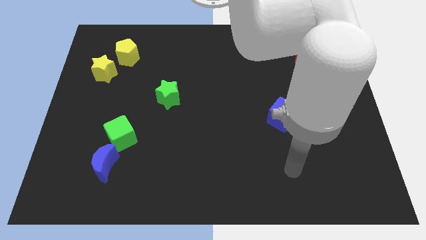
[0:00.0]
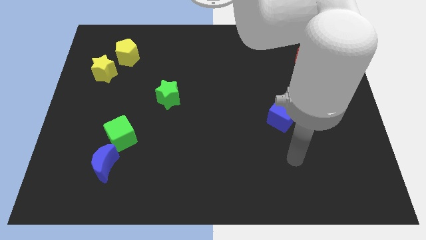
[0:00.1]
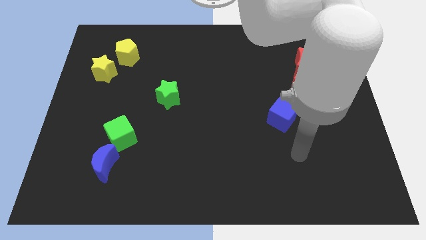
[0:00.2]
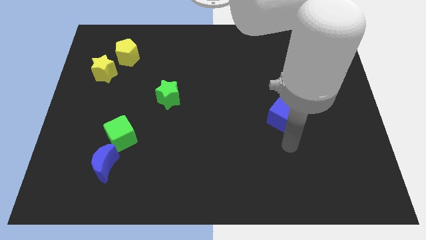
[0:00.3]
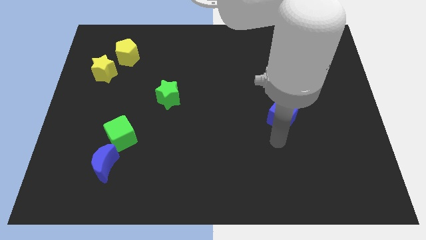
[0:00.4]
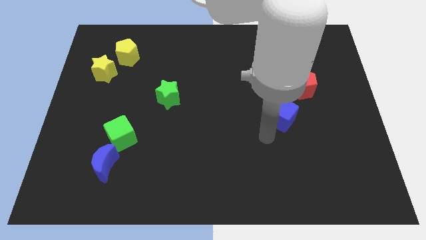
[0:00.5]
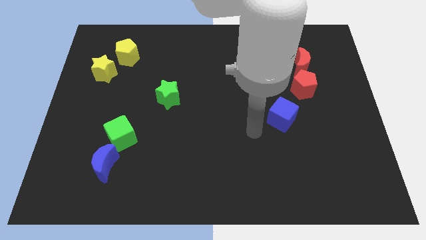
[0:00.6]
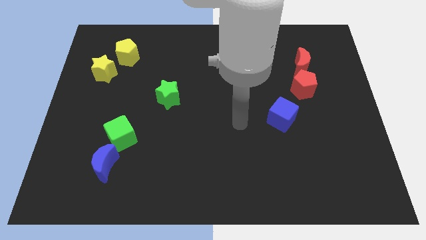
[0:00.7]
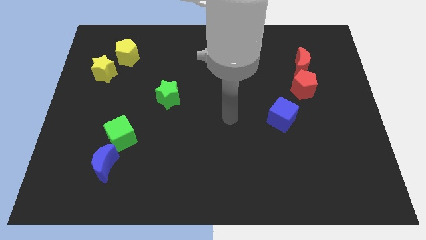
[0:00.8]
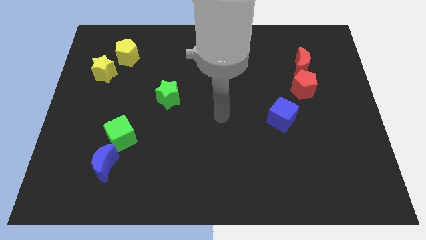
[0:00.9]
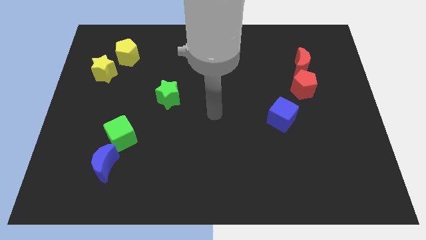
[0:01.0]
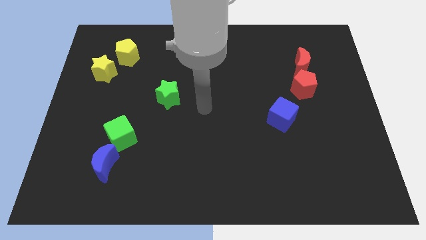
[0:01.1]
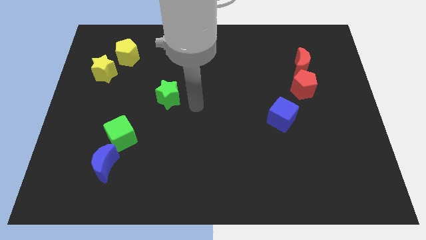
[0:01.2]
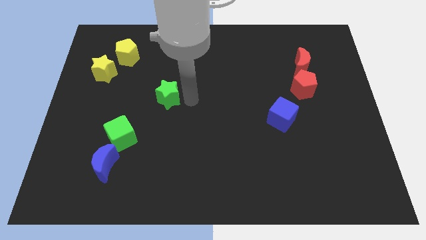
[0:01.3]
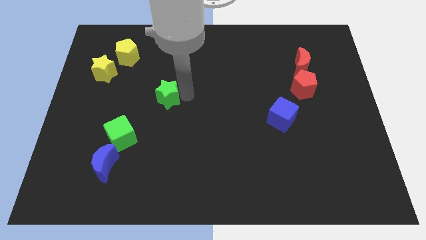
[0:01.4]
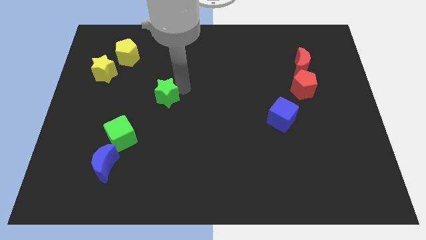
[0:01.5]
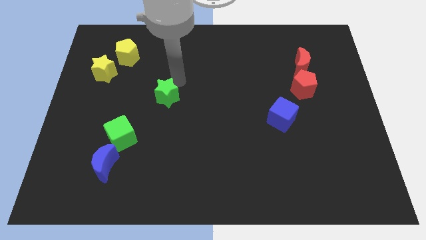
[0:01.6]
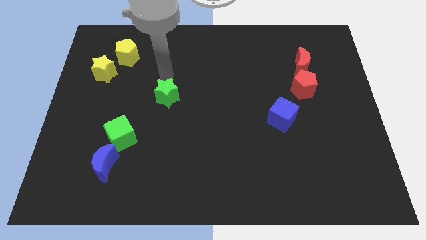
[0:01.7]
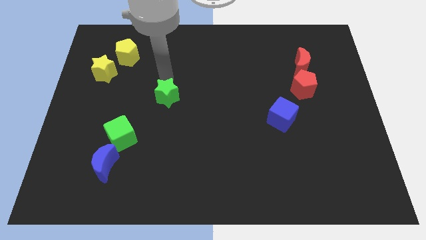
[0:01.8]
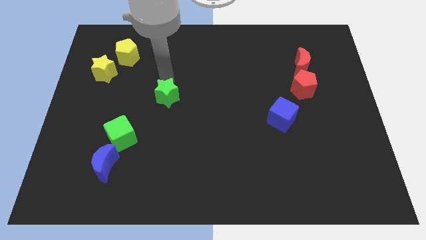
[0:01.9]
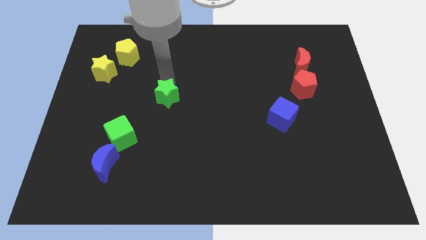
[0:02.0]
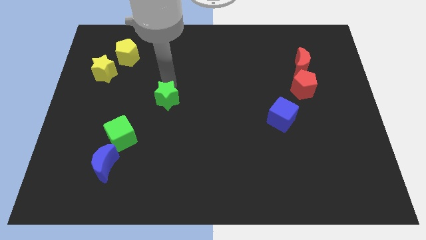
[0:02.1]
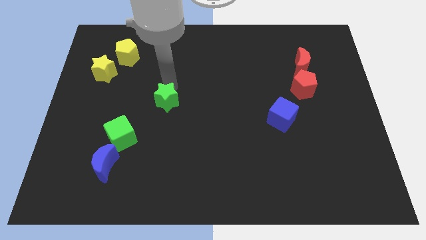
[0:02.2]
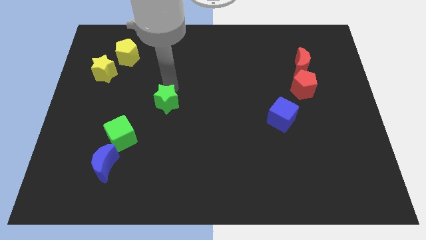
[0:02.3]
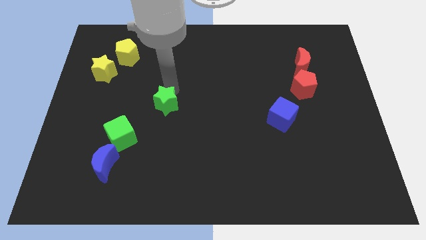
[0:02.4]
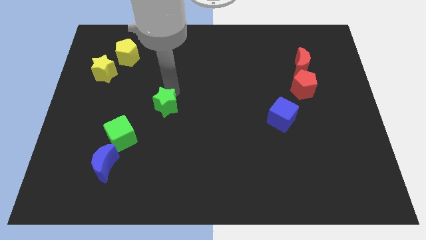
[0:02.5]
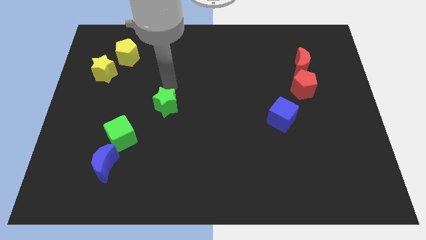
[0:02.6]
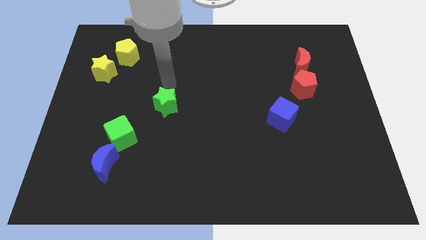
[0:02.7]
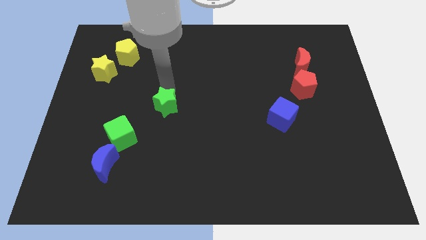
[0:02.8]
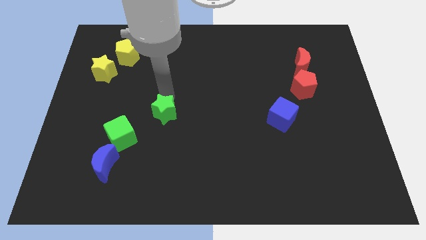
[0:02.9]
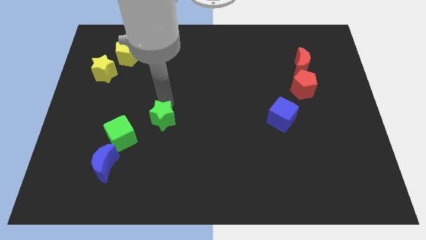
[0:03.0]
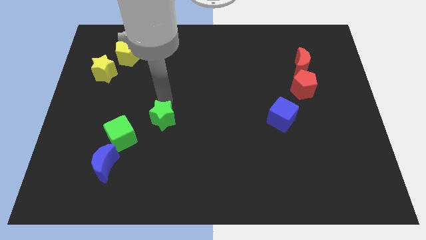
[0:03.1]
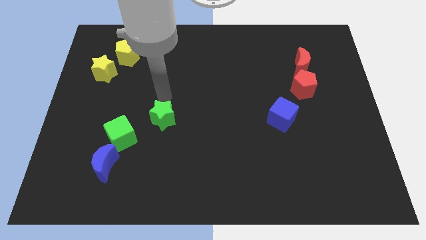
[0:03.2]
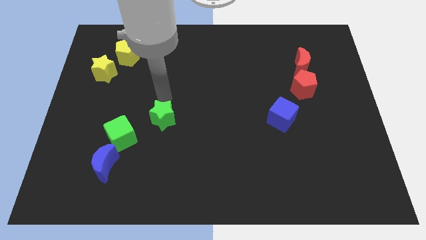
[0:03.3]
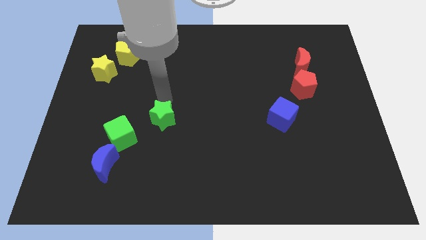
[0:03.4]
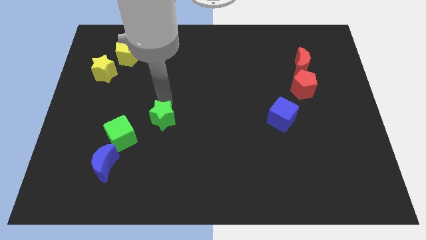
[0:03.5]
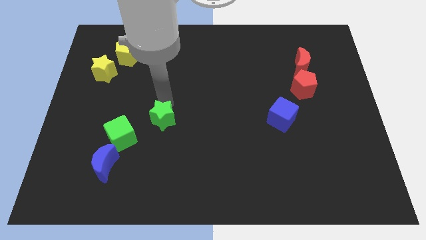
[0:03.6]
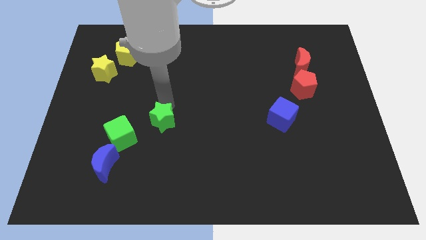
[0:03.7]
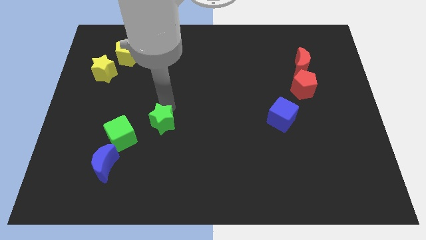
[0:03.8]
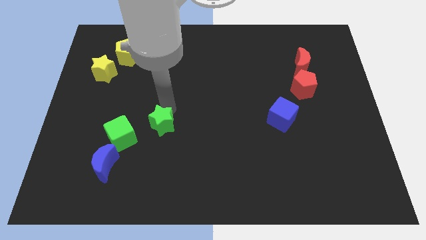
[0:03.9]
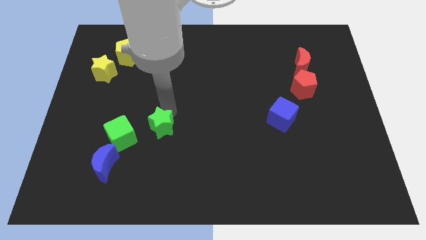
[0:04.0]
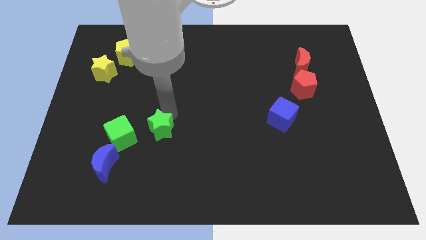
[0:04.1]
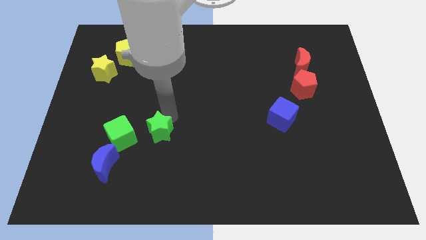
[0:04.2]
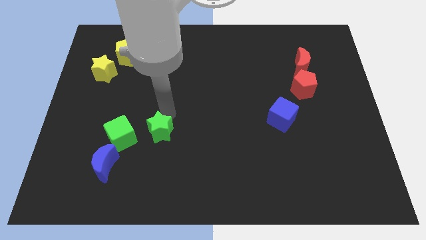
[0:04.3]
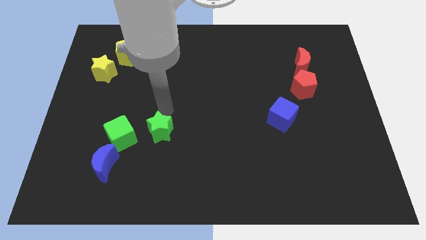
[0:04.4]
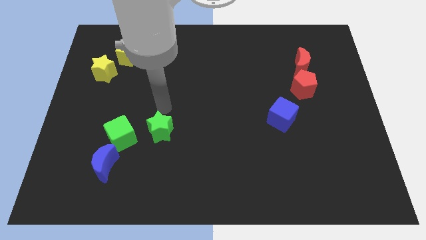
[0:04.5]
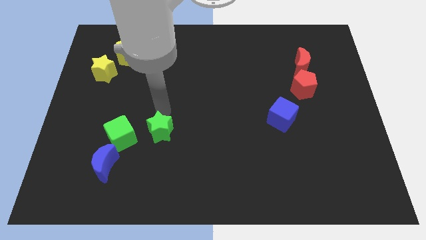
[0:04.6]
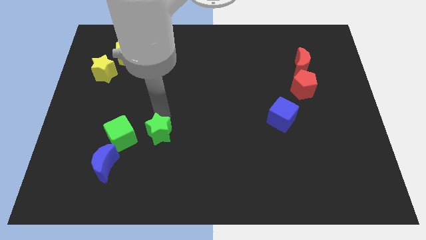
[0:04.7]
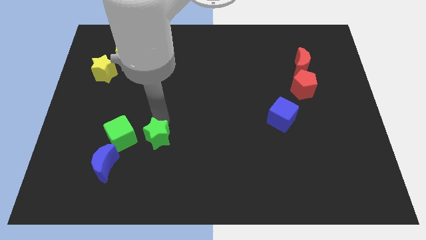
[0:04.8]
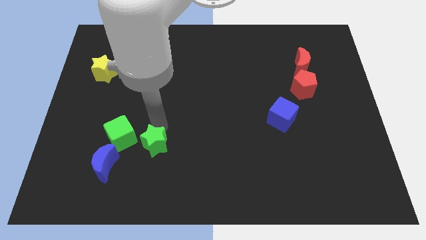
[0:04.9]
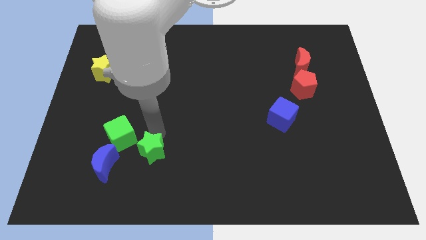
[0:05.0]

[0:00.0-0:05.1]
put the green star right of the blue moon
